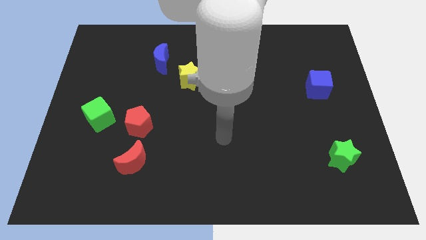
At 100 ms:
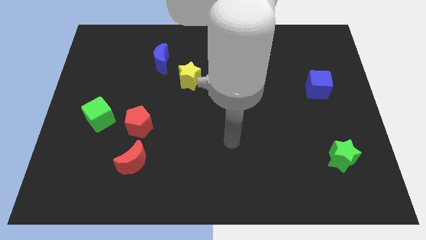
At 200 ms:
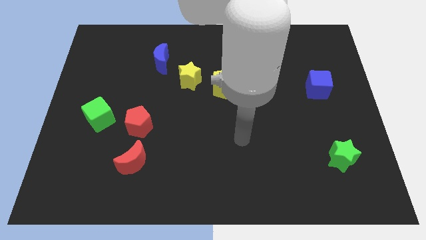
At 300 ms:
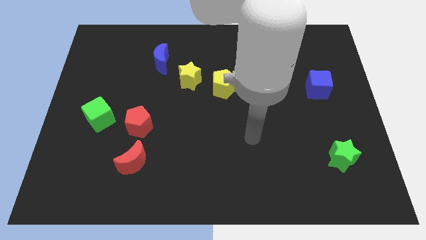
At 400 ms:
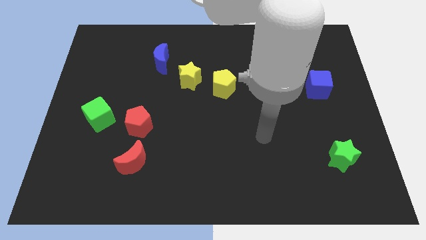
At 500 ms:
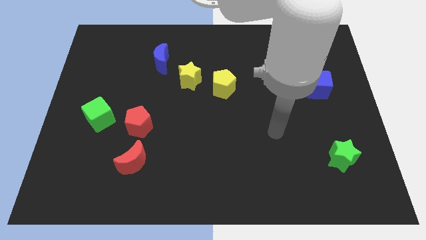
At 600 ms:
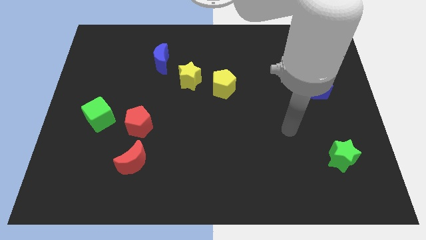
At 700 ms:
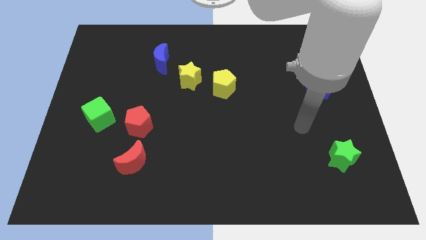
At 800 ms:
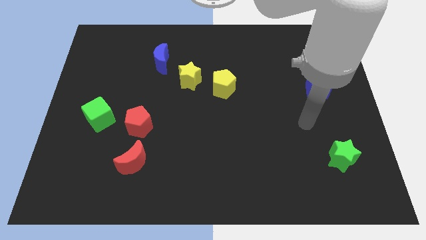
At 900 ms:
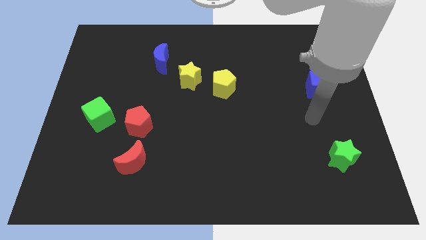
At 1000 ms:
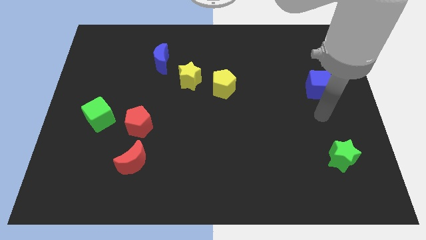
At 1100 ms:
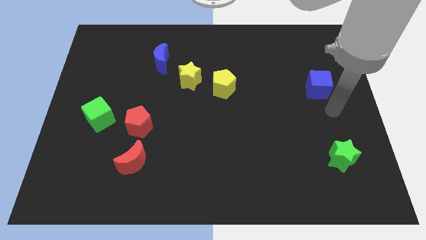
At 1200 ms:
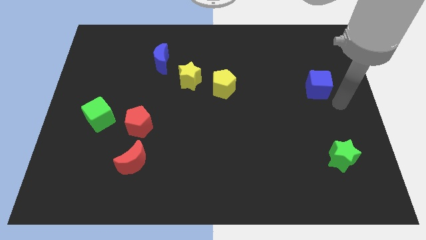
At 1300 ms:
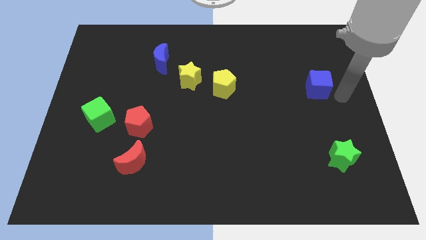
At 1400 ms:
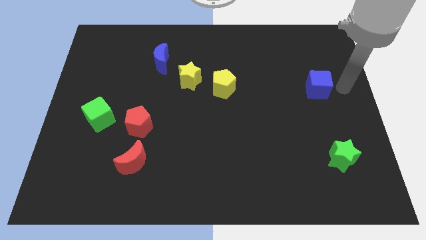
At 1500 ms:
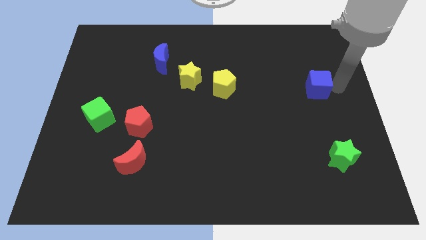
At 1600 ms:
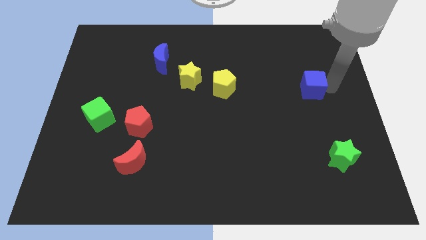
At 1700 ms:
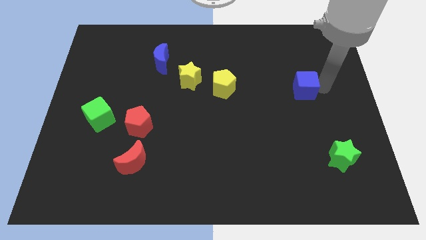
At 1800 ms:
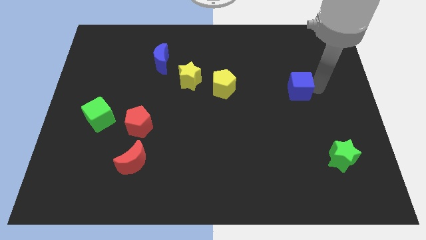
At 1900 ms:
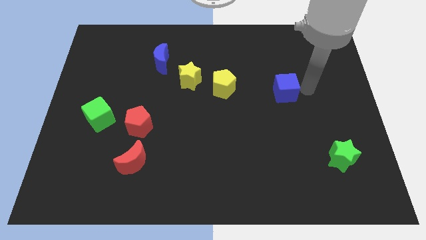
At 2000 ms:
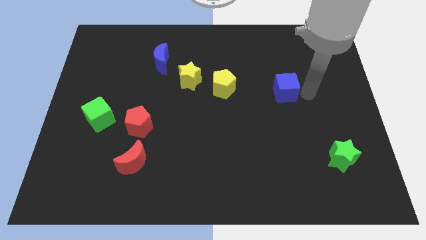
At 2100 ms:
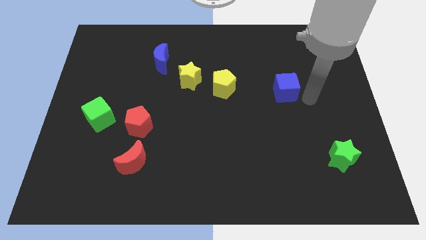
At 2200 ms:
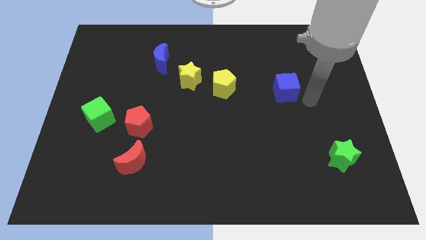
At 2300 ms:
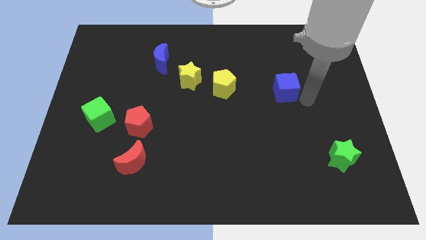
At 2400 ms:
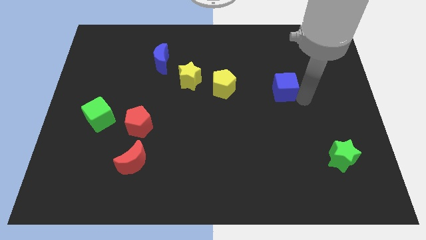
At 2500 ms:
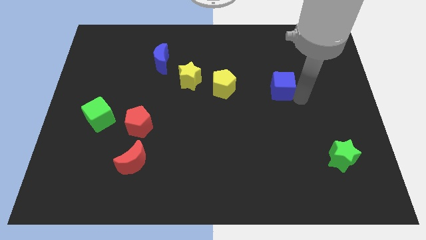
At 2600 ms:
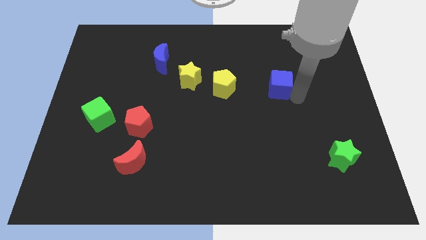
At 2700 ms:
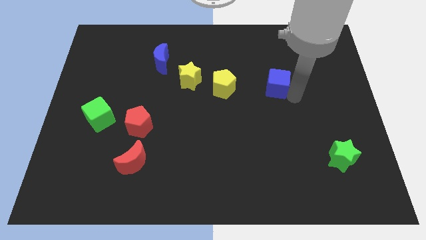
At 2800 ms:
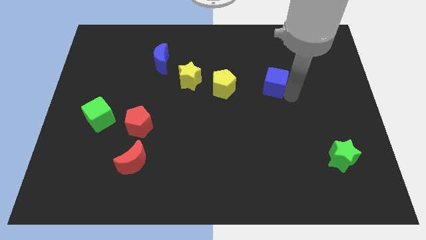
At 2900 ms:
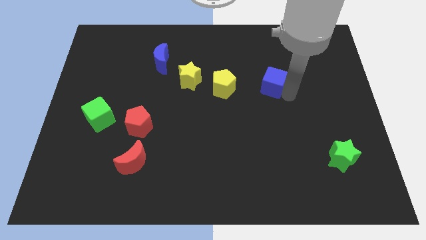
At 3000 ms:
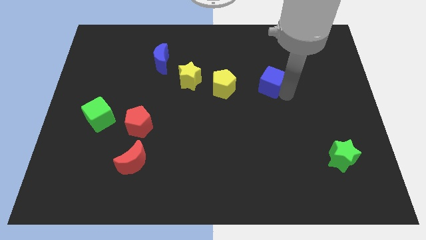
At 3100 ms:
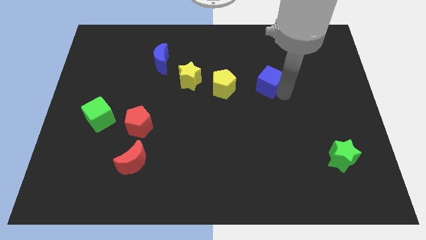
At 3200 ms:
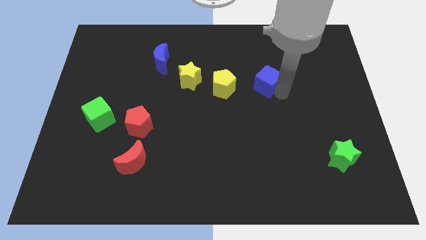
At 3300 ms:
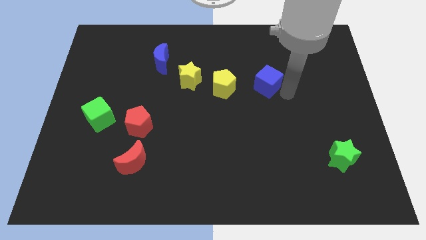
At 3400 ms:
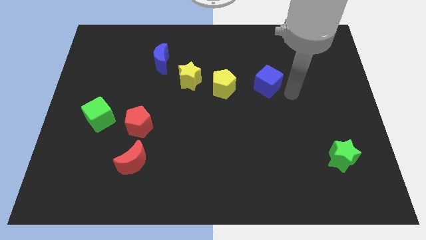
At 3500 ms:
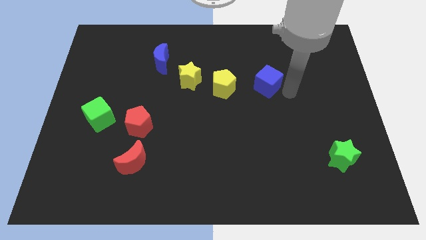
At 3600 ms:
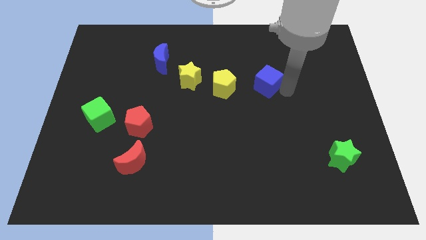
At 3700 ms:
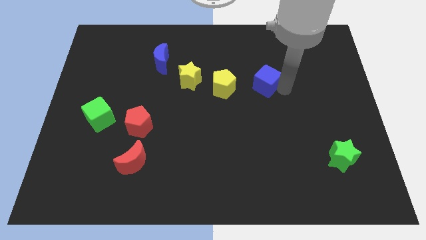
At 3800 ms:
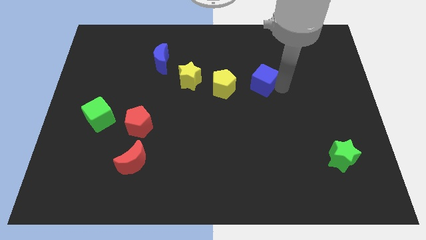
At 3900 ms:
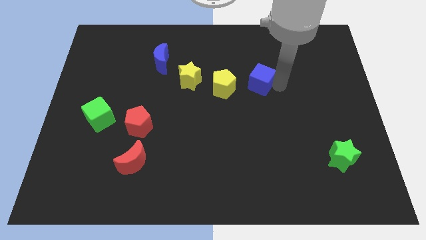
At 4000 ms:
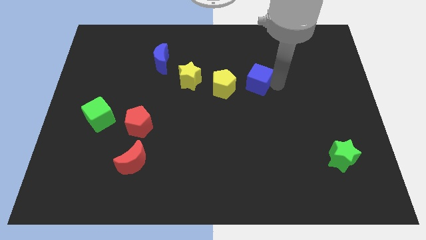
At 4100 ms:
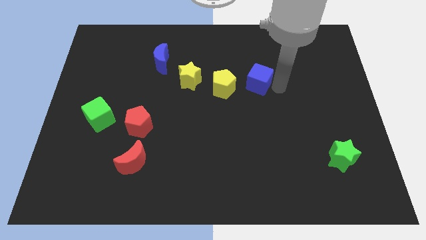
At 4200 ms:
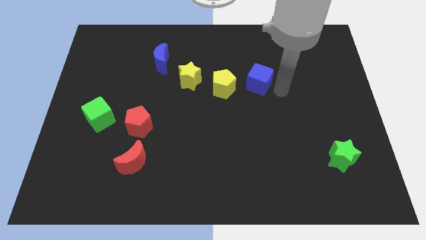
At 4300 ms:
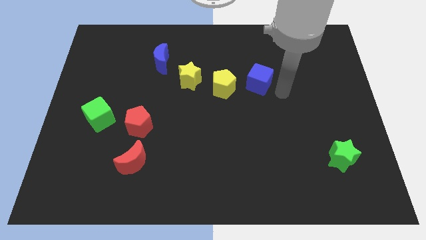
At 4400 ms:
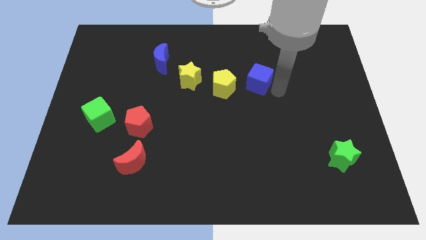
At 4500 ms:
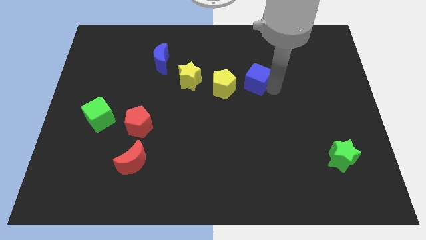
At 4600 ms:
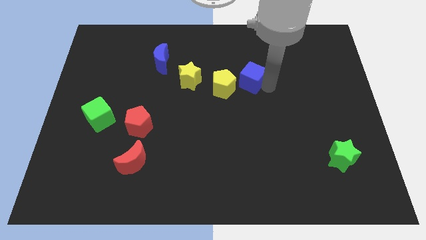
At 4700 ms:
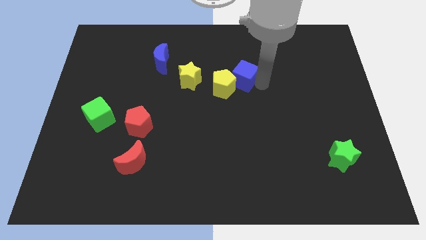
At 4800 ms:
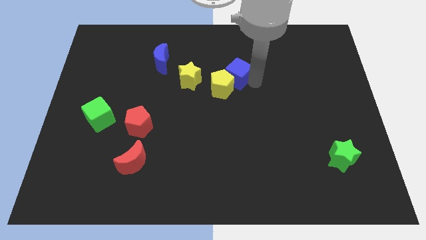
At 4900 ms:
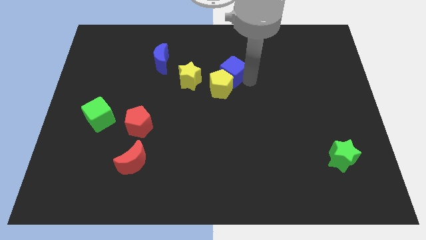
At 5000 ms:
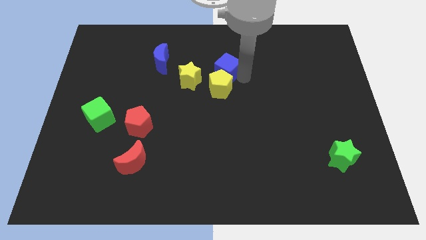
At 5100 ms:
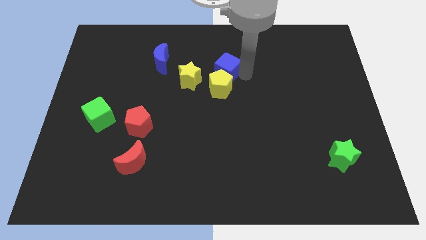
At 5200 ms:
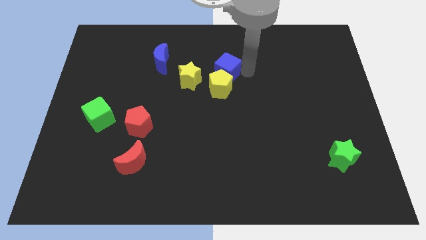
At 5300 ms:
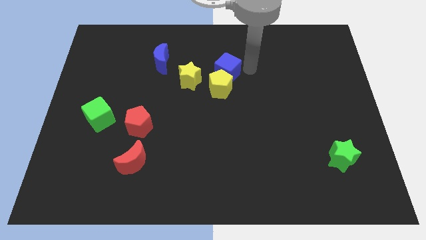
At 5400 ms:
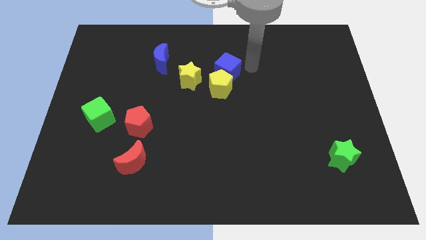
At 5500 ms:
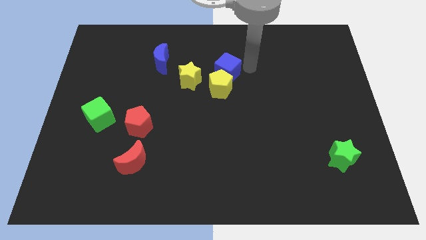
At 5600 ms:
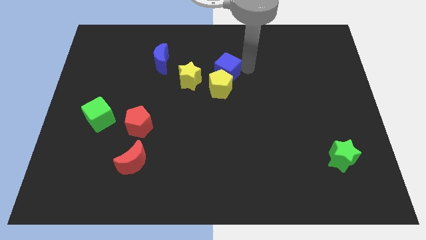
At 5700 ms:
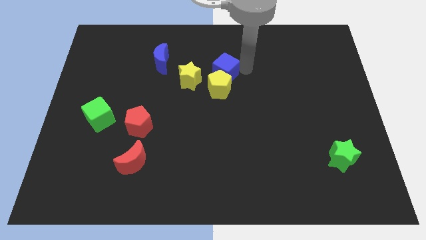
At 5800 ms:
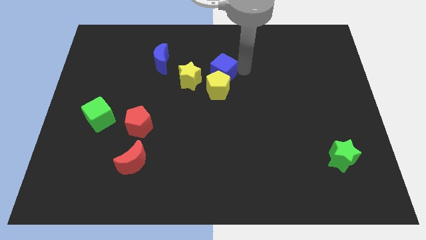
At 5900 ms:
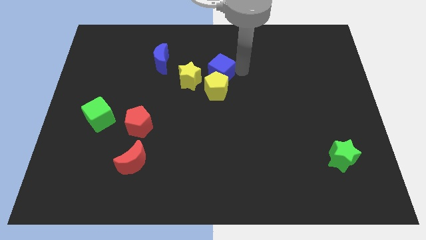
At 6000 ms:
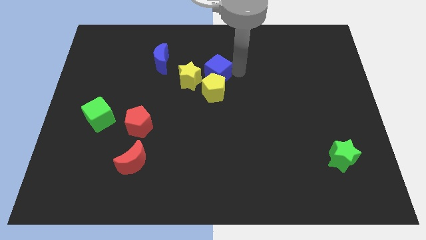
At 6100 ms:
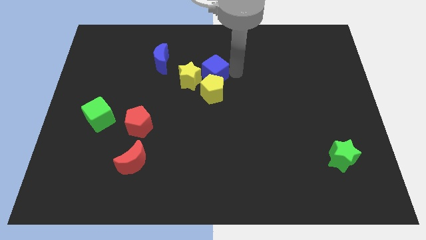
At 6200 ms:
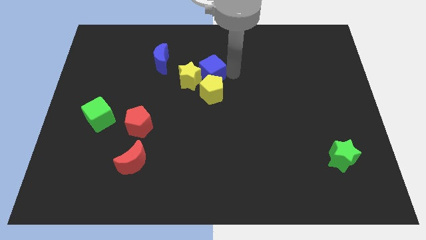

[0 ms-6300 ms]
put the blue cube next to the yellow star

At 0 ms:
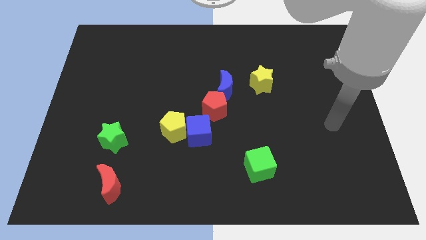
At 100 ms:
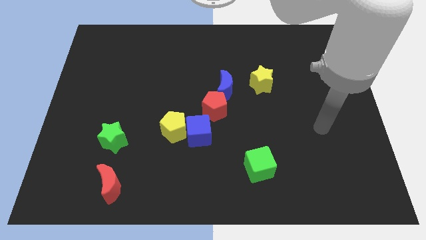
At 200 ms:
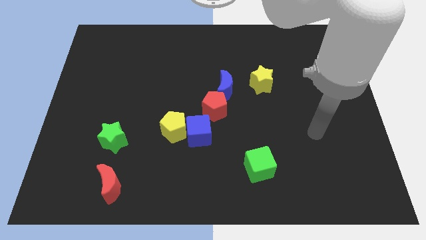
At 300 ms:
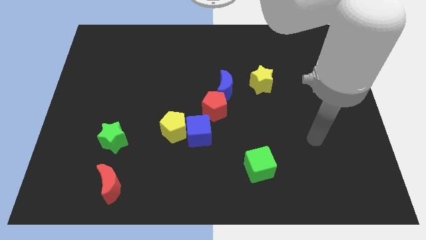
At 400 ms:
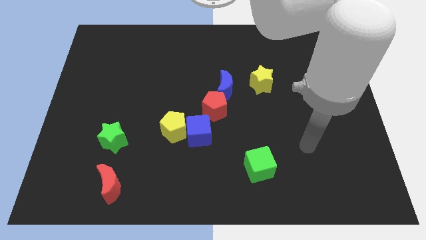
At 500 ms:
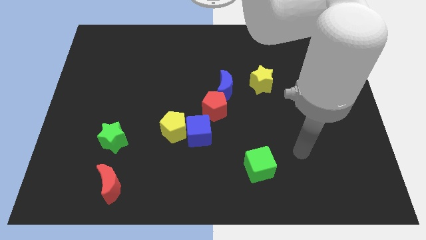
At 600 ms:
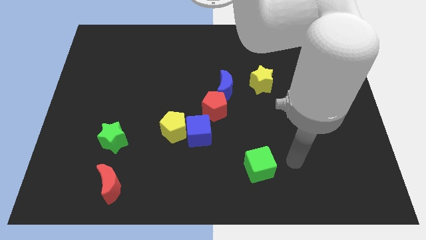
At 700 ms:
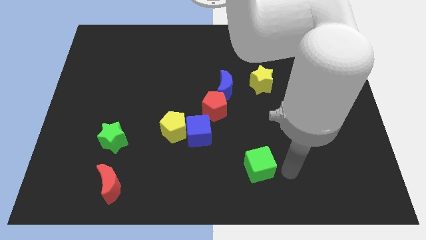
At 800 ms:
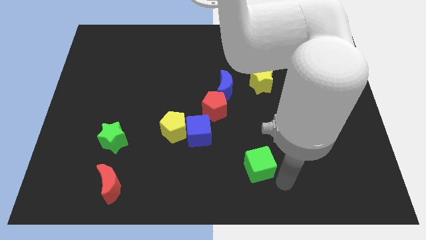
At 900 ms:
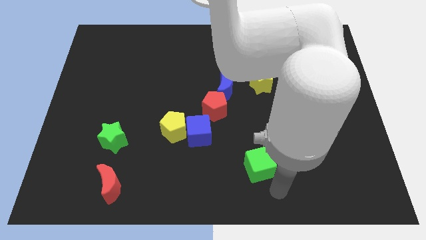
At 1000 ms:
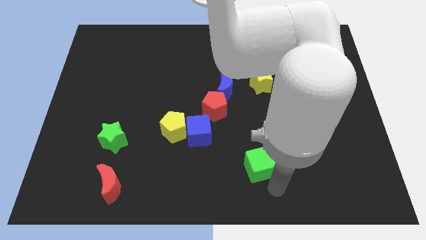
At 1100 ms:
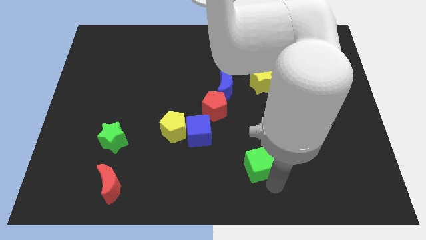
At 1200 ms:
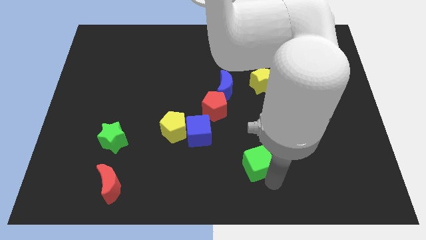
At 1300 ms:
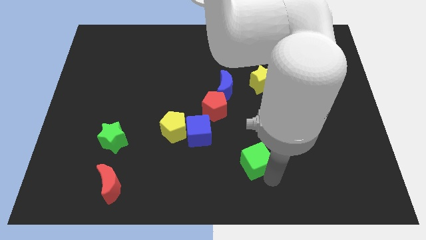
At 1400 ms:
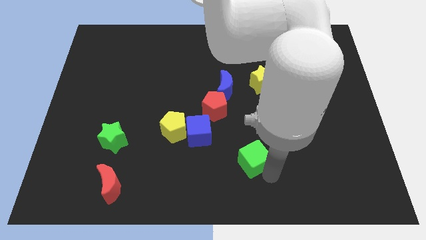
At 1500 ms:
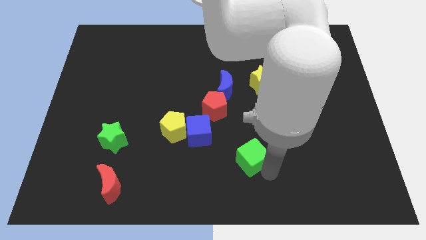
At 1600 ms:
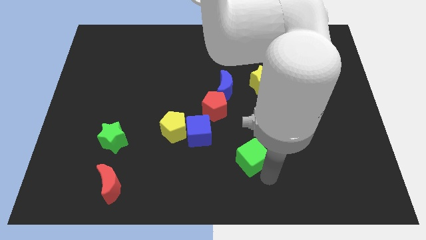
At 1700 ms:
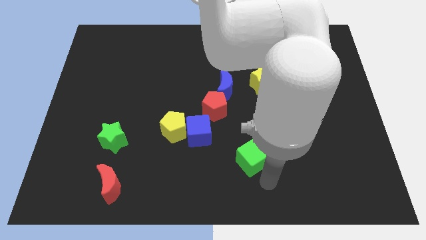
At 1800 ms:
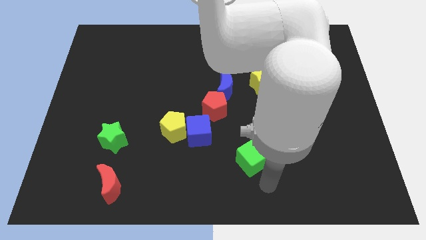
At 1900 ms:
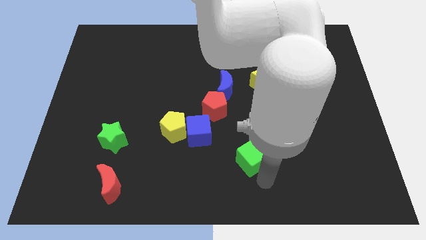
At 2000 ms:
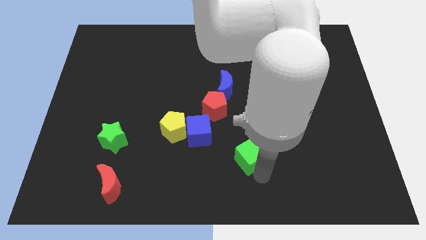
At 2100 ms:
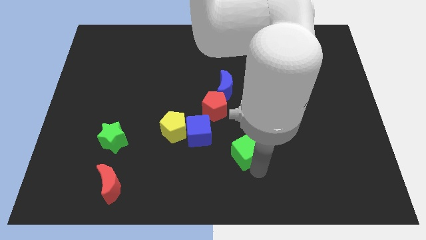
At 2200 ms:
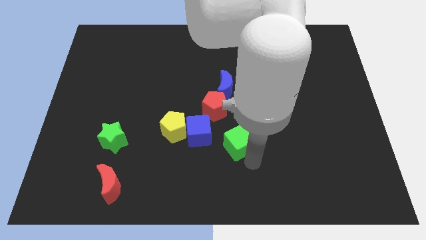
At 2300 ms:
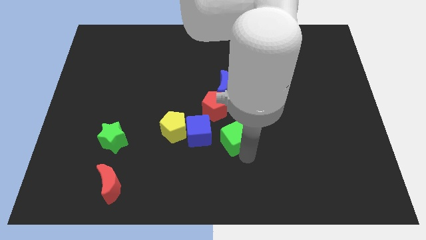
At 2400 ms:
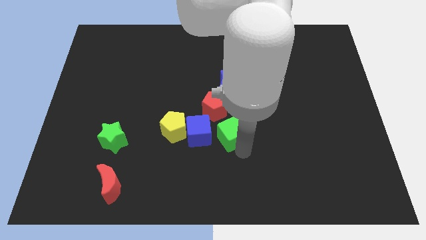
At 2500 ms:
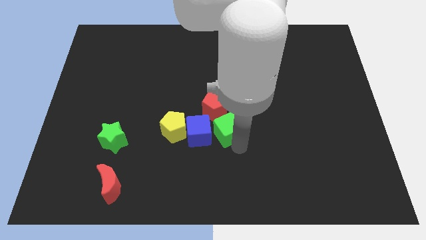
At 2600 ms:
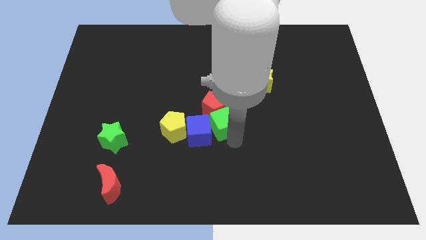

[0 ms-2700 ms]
slide the green cube towards the red pentagon
